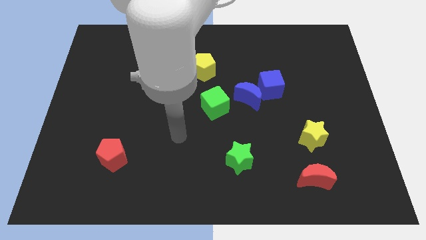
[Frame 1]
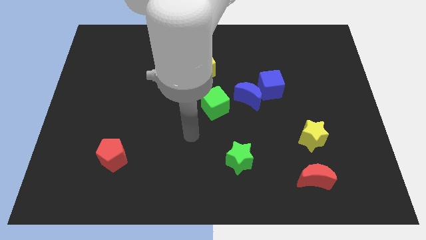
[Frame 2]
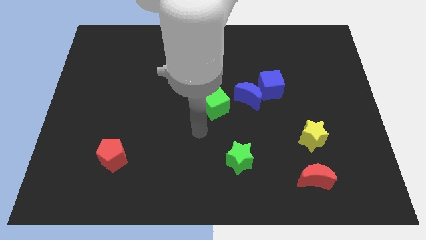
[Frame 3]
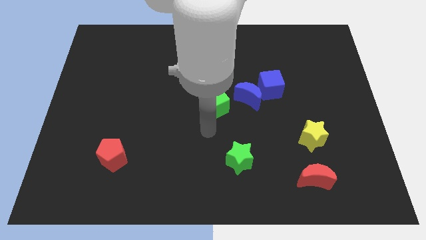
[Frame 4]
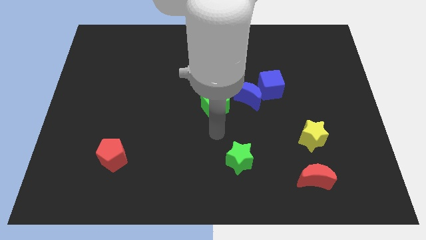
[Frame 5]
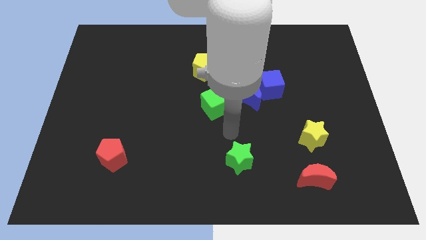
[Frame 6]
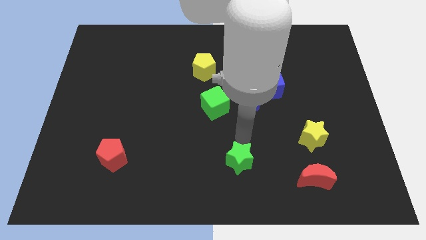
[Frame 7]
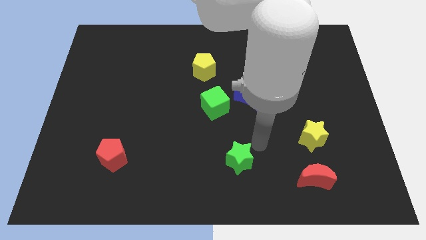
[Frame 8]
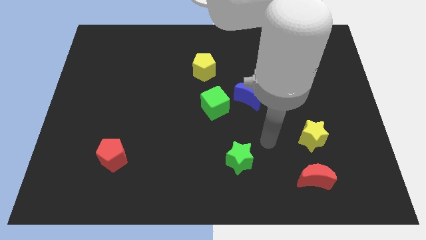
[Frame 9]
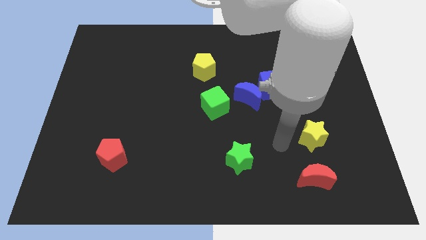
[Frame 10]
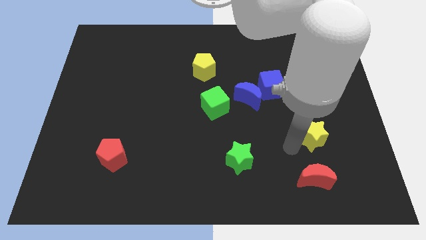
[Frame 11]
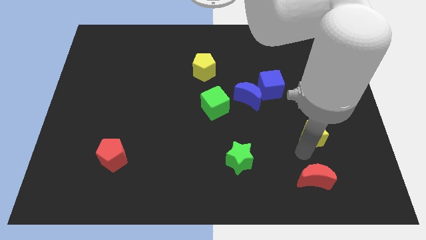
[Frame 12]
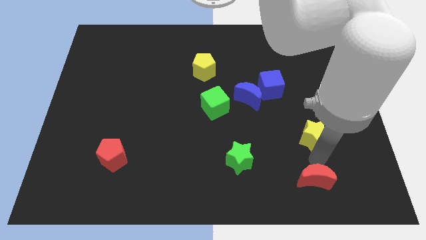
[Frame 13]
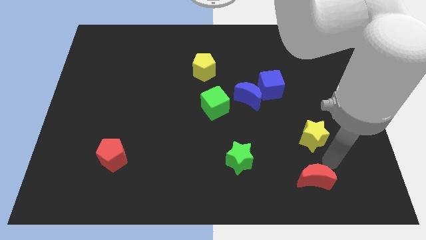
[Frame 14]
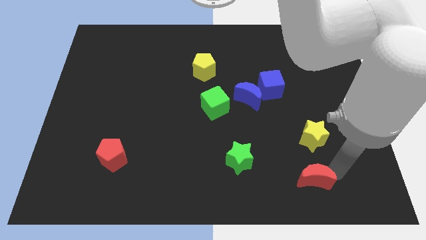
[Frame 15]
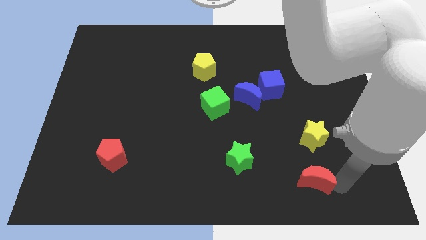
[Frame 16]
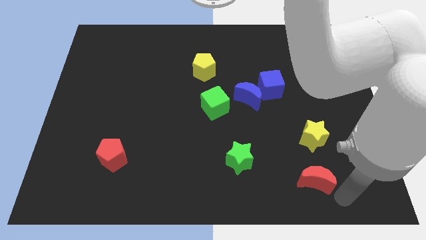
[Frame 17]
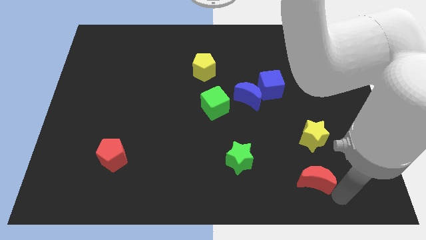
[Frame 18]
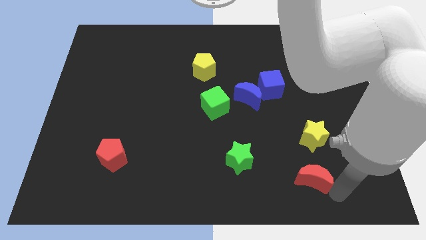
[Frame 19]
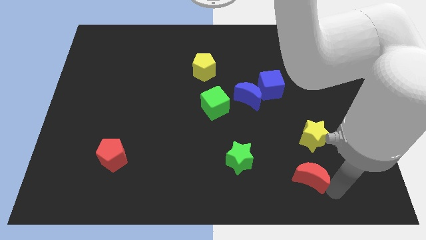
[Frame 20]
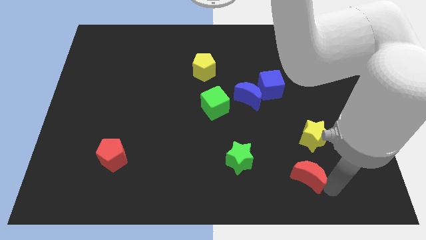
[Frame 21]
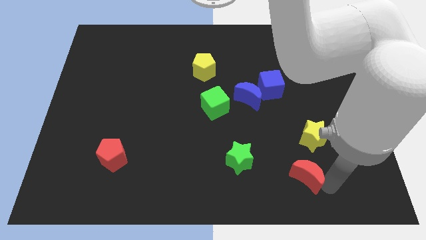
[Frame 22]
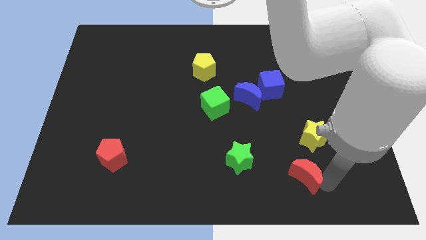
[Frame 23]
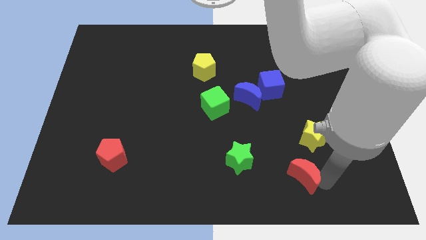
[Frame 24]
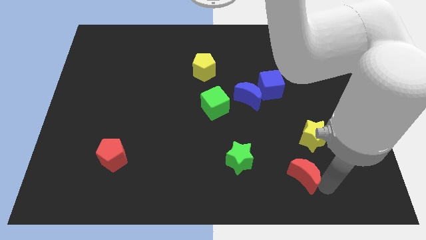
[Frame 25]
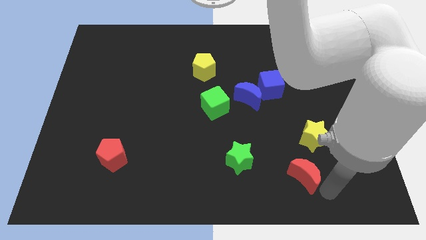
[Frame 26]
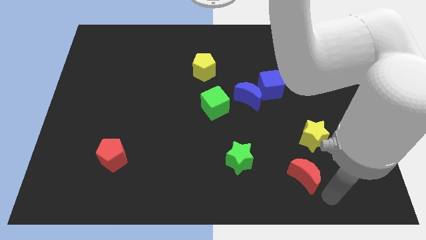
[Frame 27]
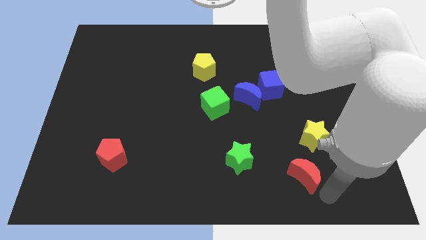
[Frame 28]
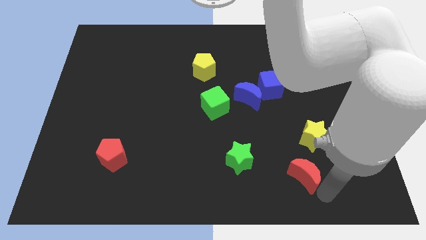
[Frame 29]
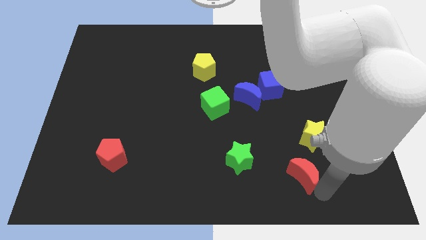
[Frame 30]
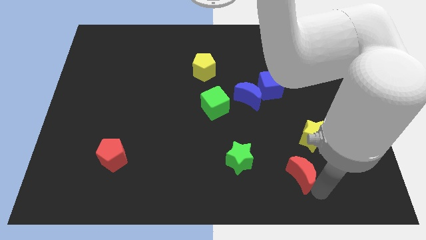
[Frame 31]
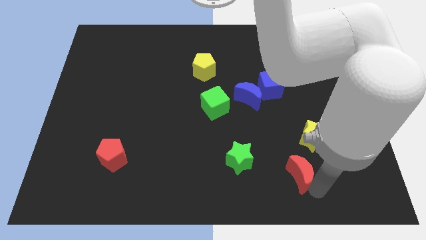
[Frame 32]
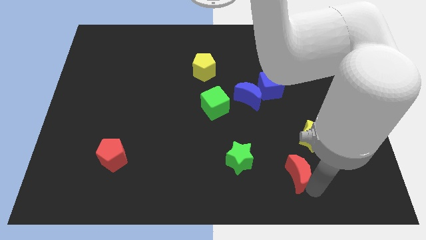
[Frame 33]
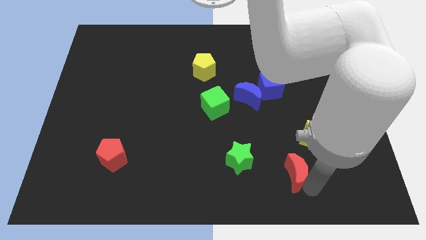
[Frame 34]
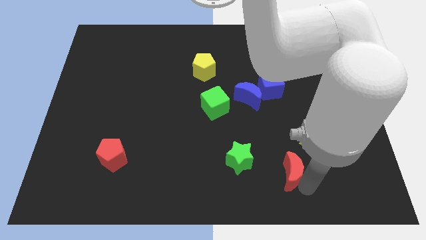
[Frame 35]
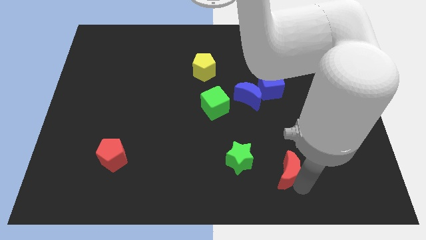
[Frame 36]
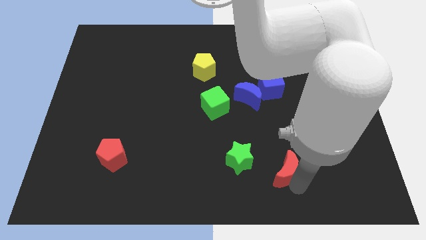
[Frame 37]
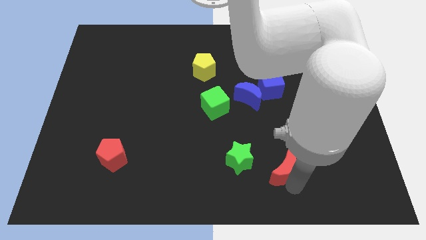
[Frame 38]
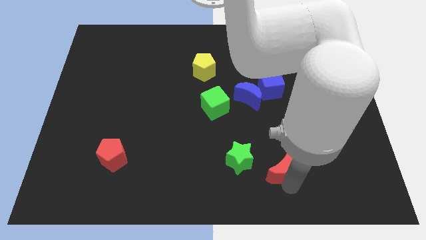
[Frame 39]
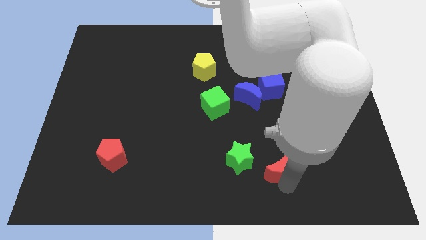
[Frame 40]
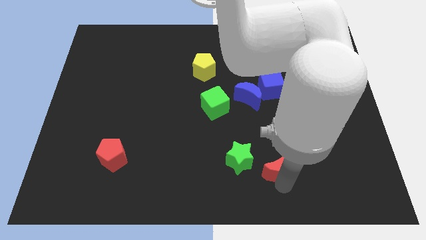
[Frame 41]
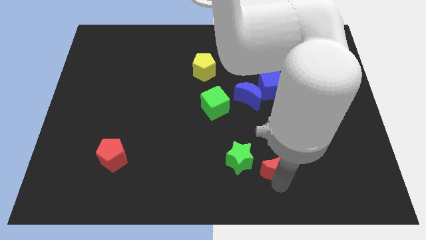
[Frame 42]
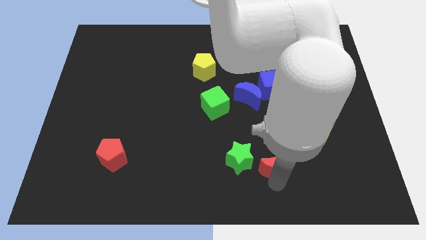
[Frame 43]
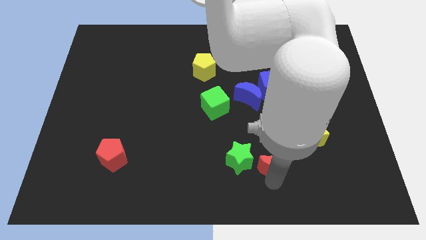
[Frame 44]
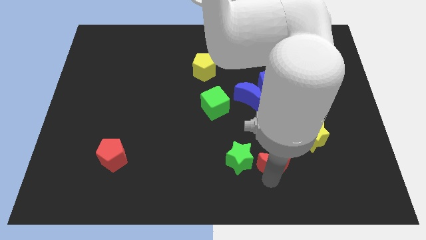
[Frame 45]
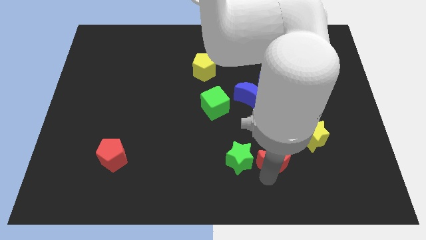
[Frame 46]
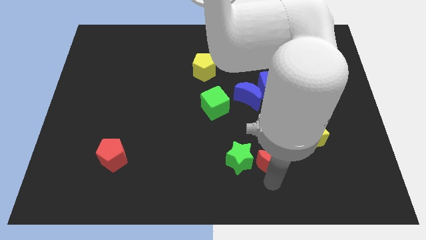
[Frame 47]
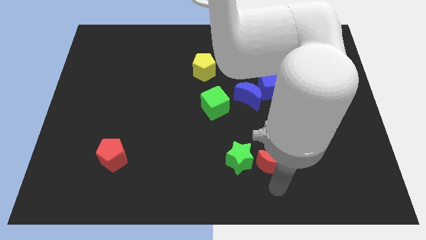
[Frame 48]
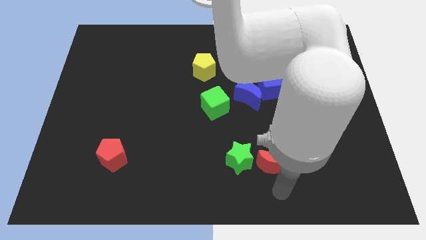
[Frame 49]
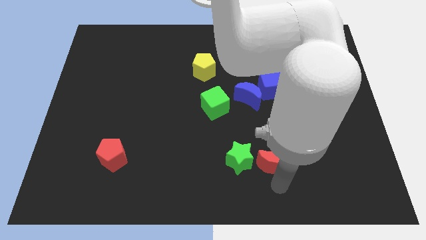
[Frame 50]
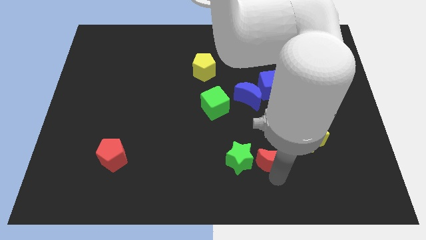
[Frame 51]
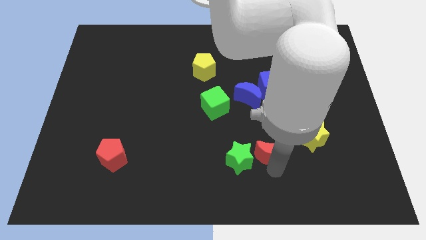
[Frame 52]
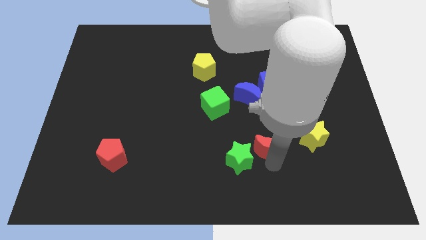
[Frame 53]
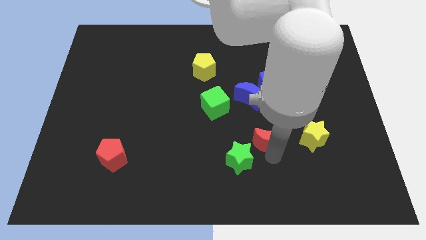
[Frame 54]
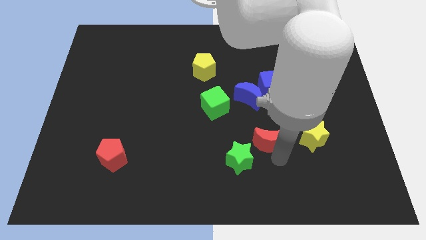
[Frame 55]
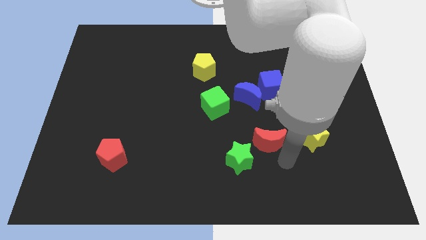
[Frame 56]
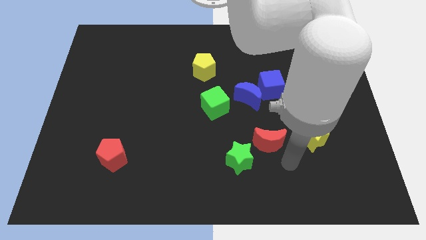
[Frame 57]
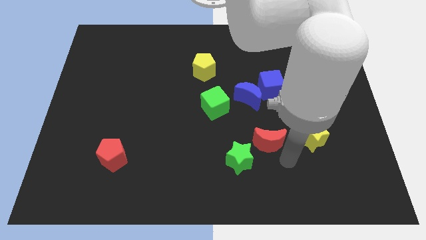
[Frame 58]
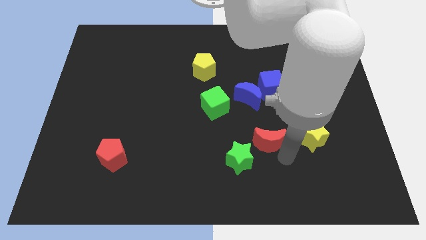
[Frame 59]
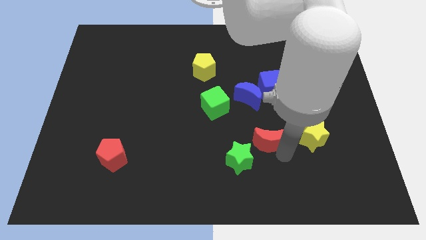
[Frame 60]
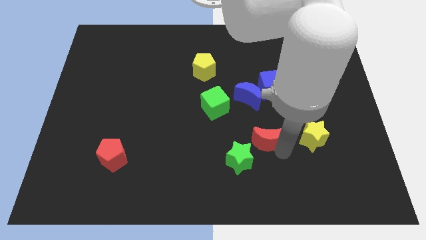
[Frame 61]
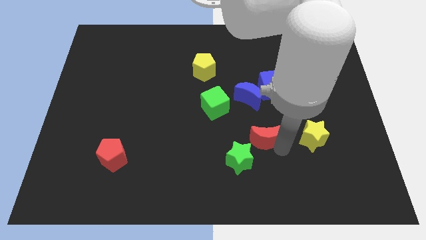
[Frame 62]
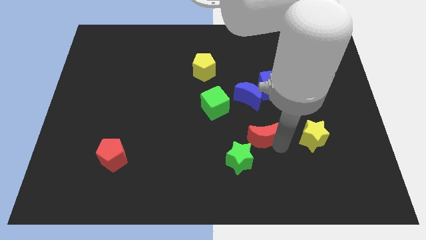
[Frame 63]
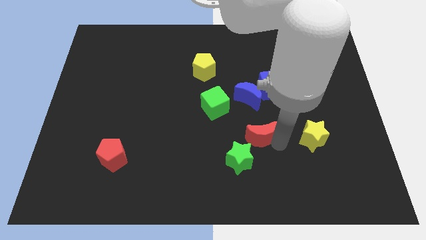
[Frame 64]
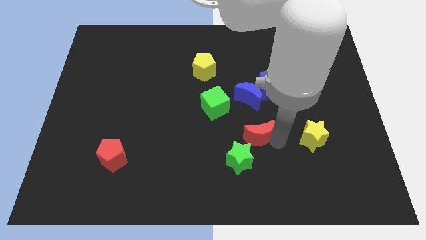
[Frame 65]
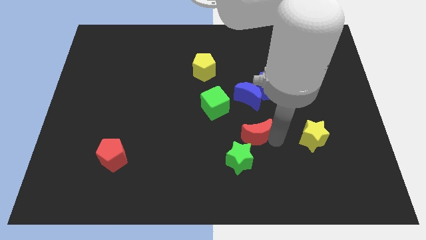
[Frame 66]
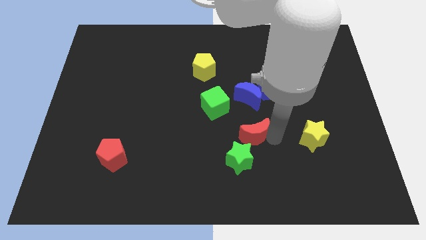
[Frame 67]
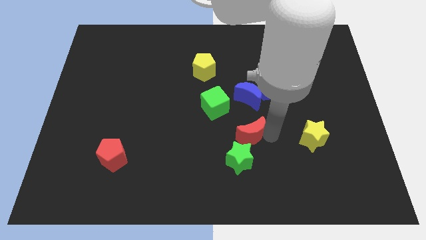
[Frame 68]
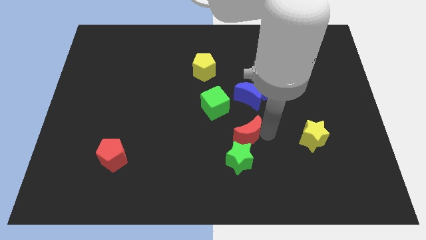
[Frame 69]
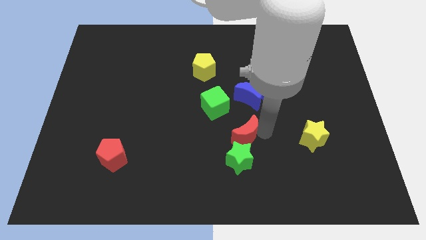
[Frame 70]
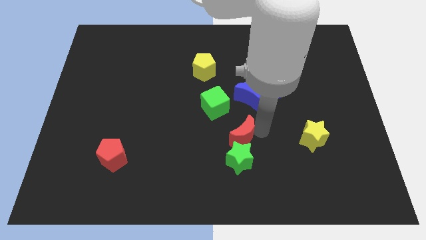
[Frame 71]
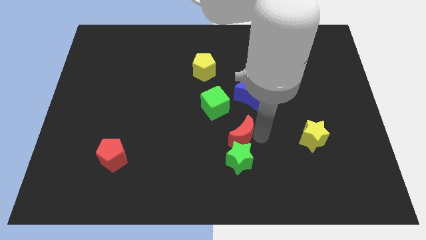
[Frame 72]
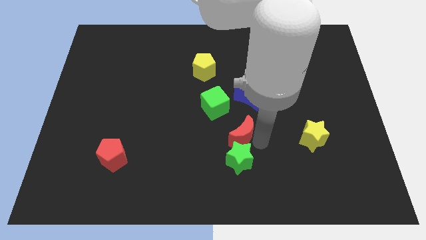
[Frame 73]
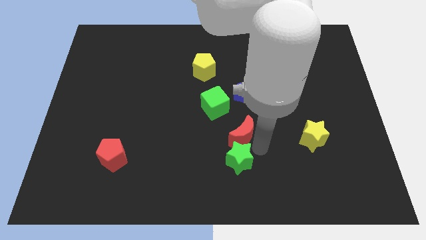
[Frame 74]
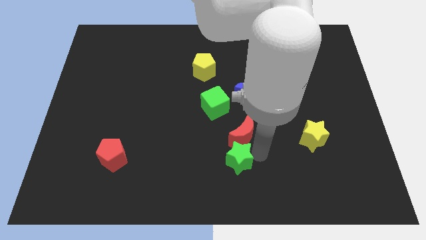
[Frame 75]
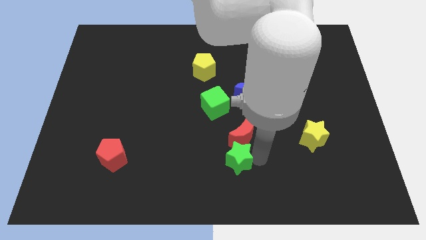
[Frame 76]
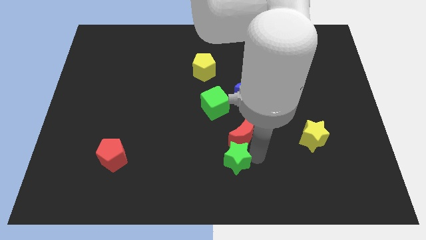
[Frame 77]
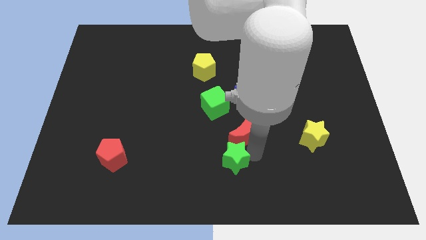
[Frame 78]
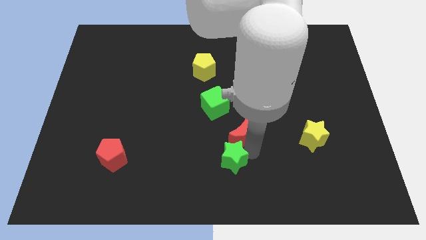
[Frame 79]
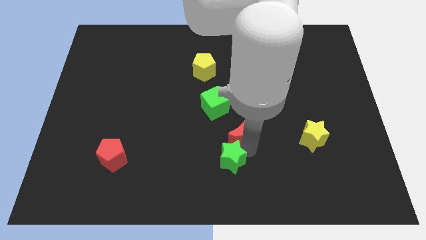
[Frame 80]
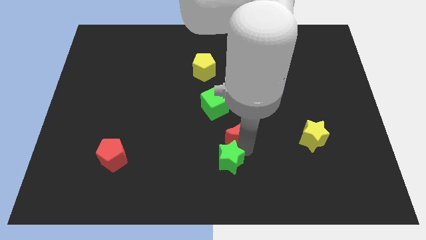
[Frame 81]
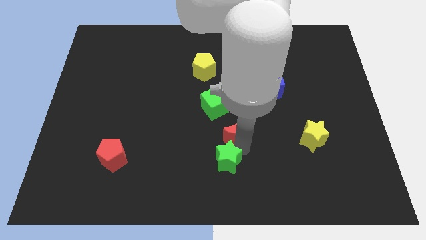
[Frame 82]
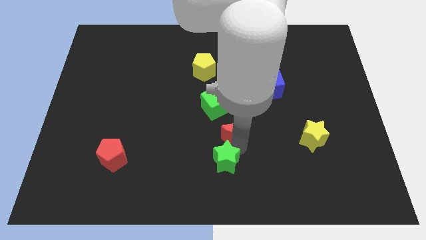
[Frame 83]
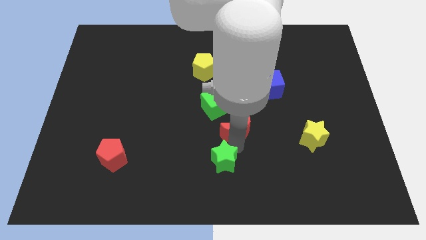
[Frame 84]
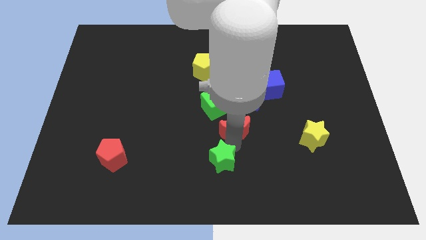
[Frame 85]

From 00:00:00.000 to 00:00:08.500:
slide the red moon to the bottom left of the blue moon
